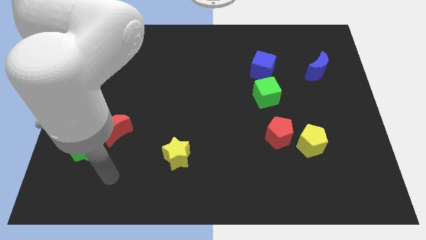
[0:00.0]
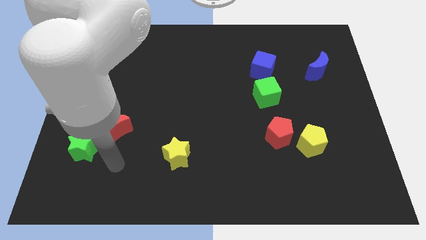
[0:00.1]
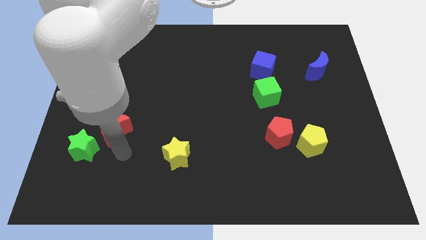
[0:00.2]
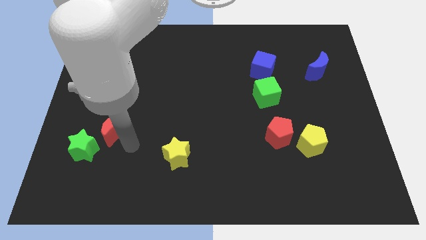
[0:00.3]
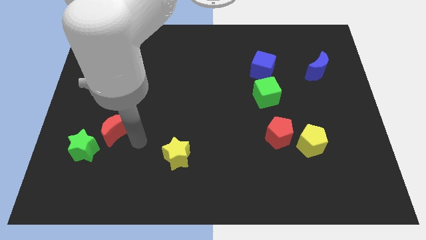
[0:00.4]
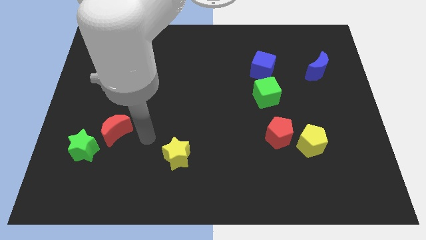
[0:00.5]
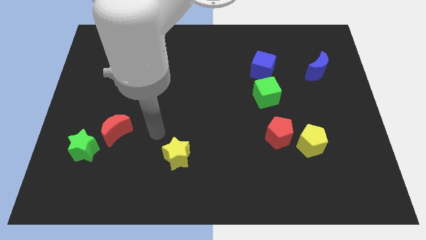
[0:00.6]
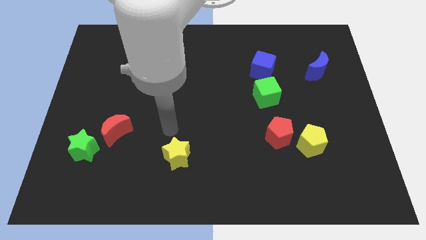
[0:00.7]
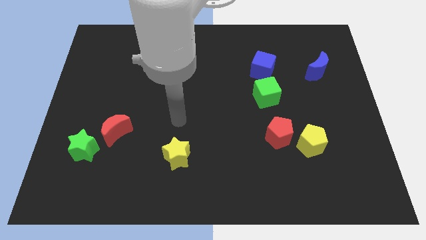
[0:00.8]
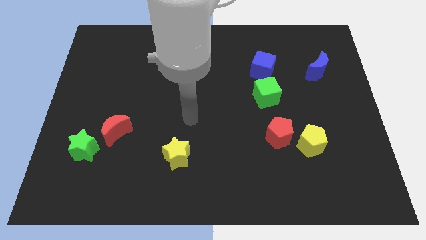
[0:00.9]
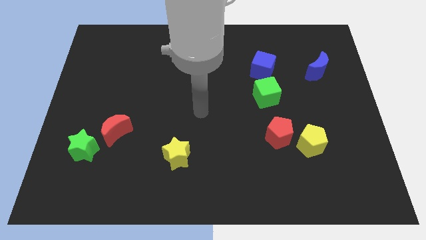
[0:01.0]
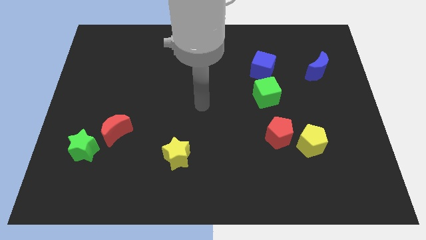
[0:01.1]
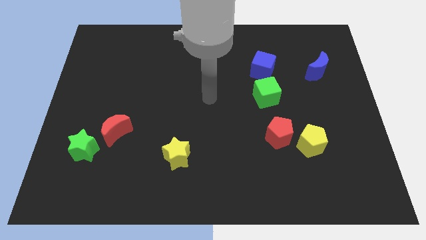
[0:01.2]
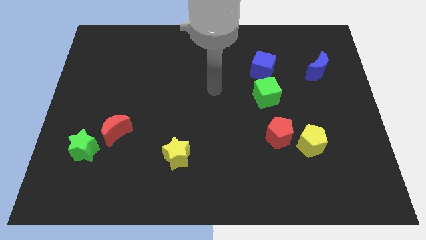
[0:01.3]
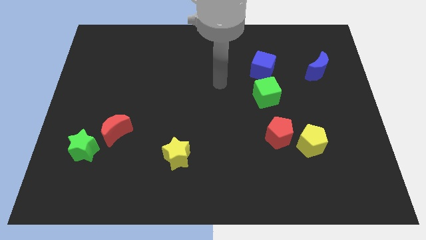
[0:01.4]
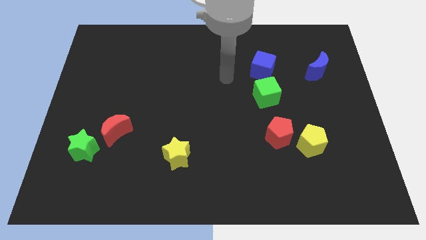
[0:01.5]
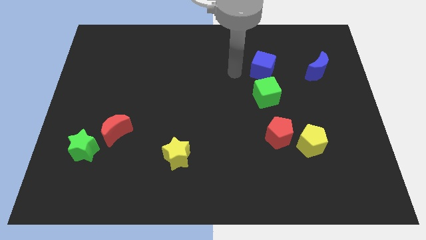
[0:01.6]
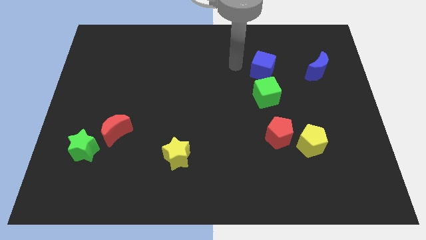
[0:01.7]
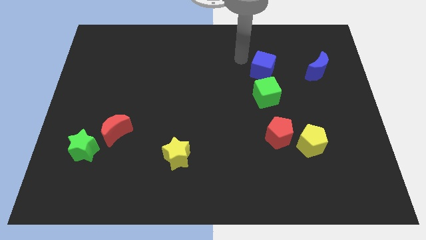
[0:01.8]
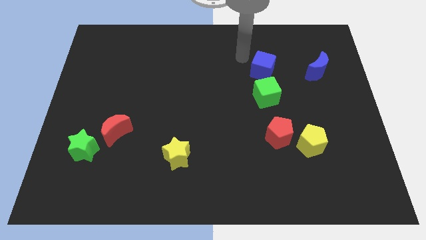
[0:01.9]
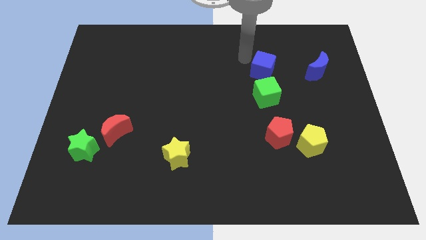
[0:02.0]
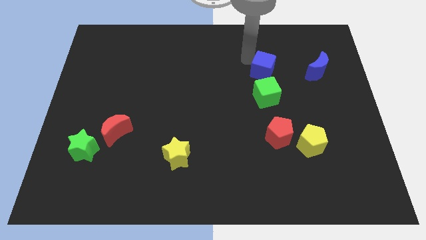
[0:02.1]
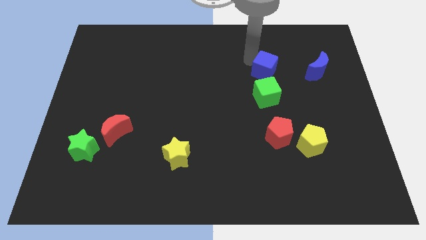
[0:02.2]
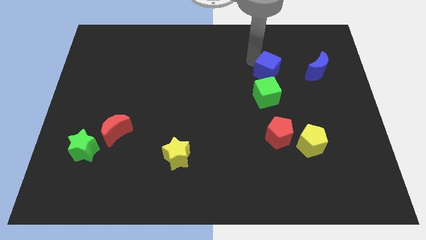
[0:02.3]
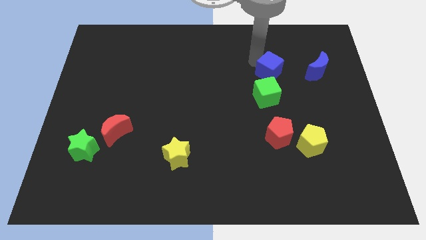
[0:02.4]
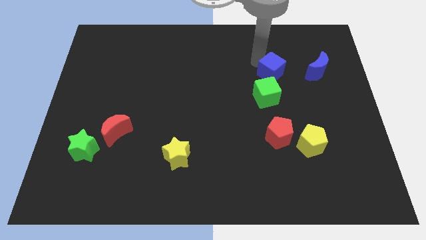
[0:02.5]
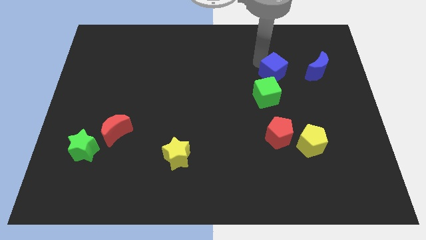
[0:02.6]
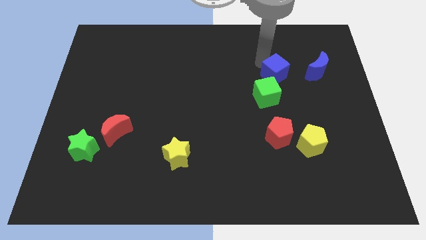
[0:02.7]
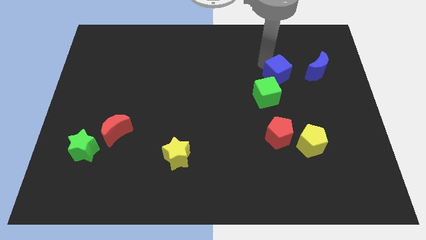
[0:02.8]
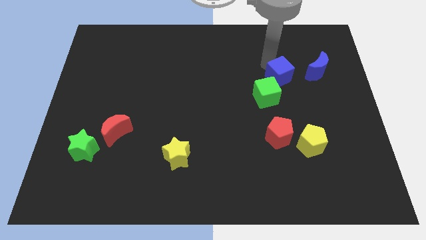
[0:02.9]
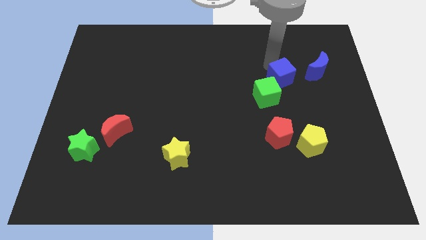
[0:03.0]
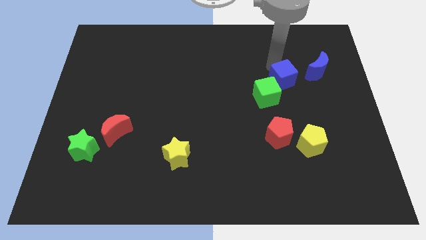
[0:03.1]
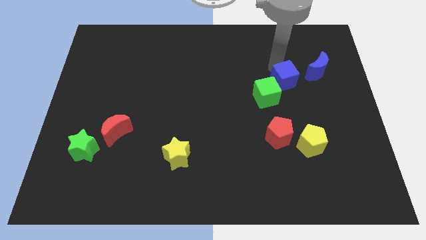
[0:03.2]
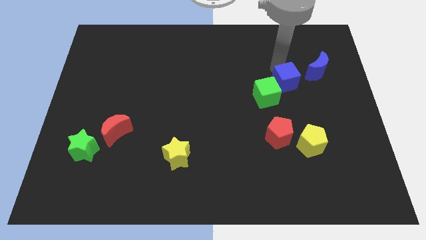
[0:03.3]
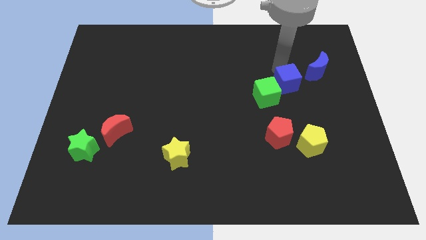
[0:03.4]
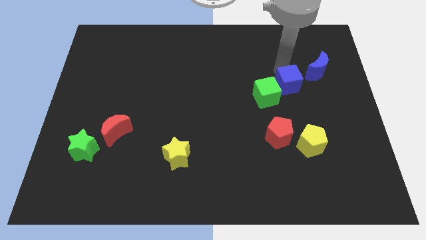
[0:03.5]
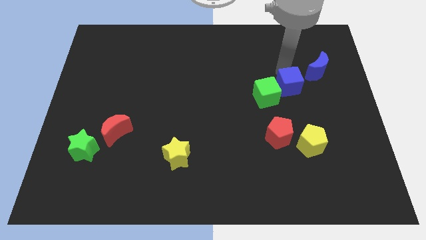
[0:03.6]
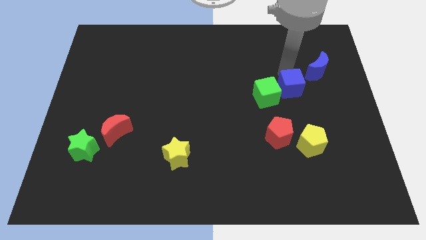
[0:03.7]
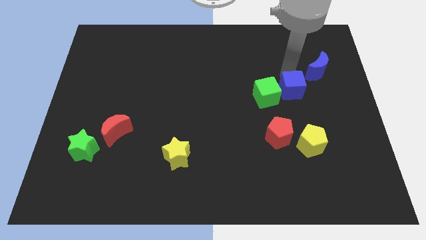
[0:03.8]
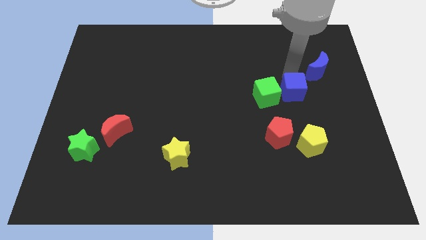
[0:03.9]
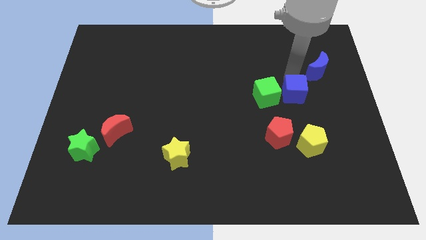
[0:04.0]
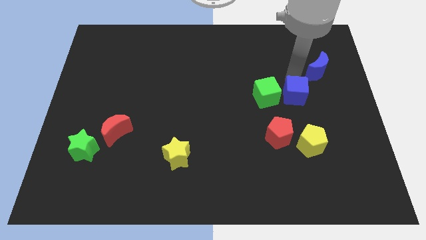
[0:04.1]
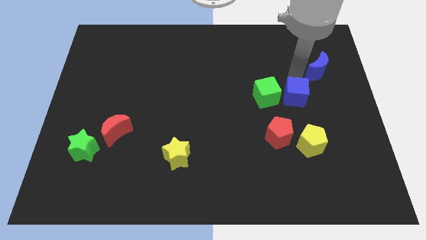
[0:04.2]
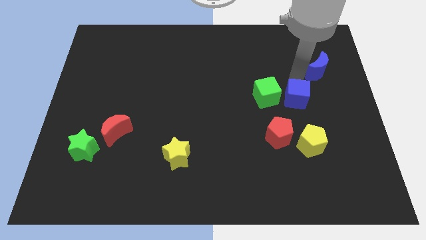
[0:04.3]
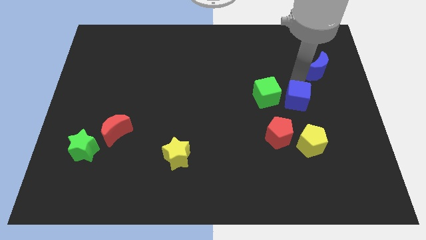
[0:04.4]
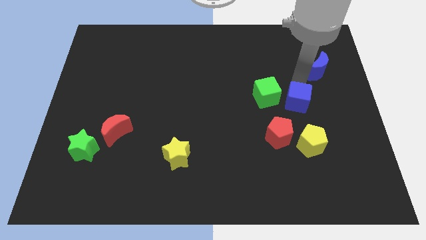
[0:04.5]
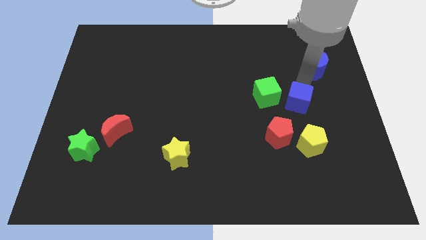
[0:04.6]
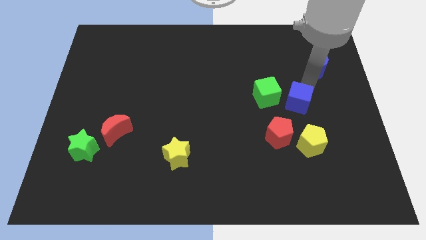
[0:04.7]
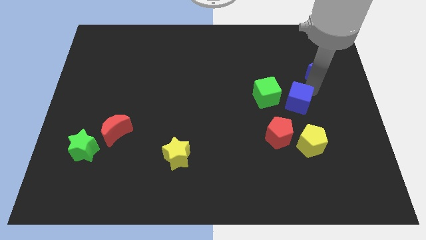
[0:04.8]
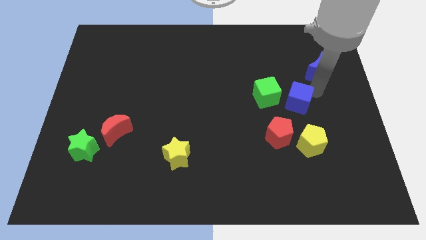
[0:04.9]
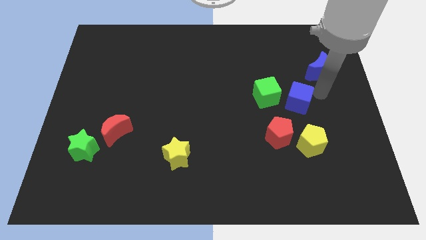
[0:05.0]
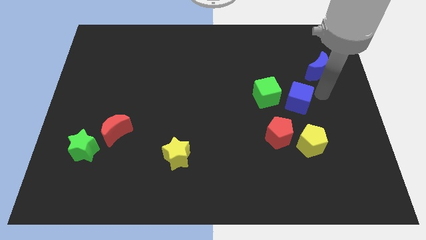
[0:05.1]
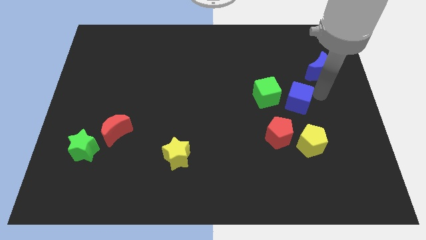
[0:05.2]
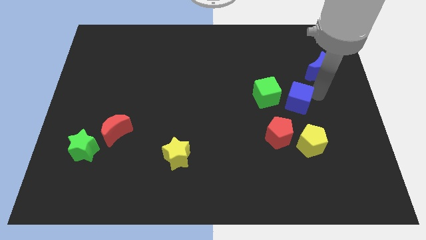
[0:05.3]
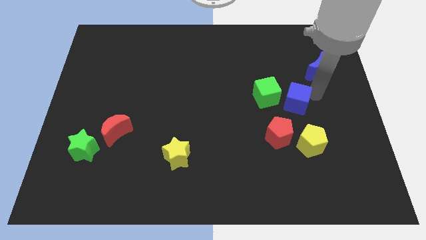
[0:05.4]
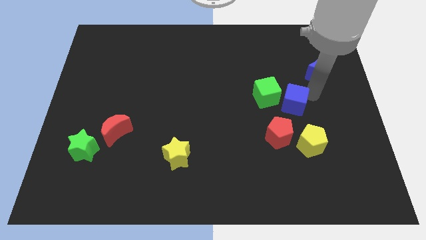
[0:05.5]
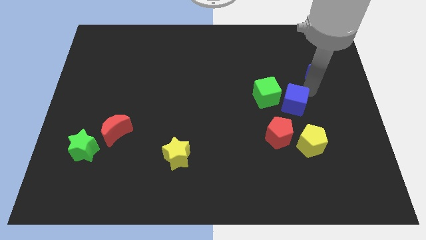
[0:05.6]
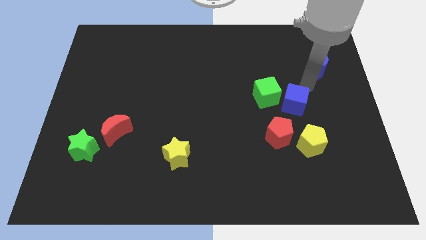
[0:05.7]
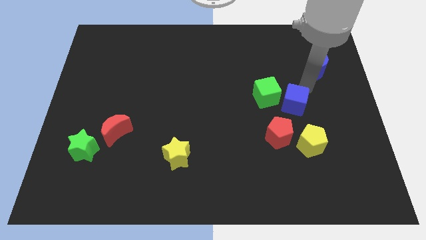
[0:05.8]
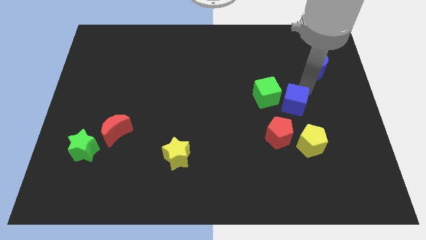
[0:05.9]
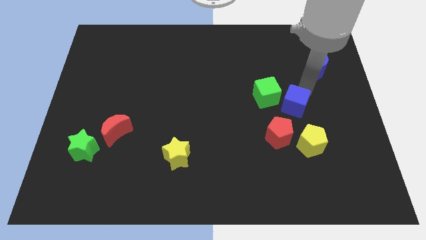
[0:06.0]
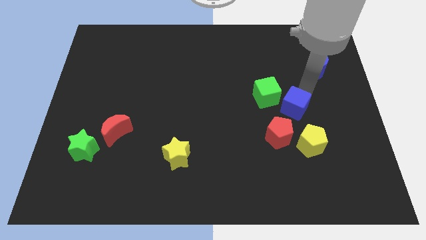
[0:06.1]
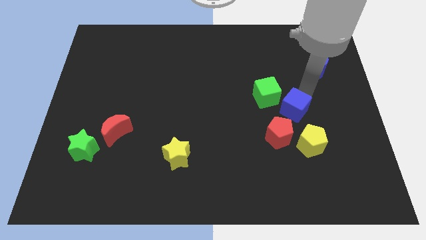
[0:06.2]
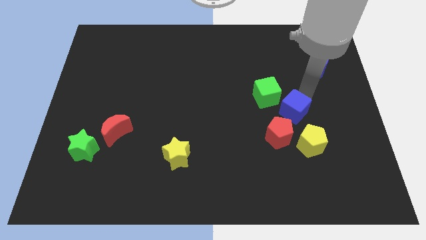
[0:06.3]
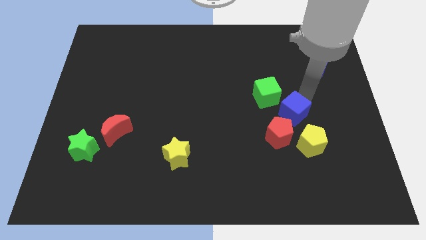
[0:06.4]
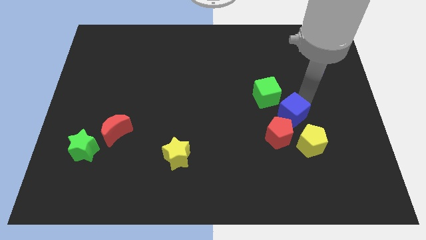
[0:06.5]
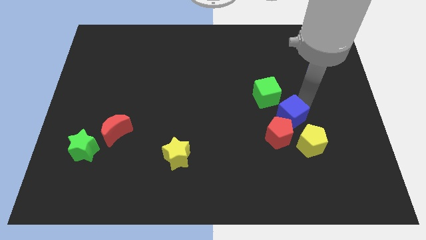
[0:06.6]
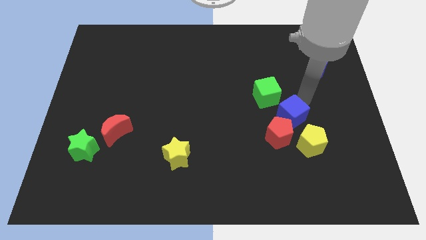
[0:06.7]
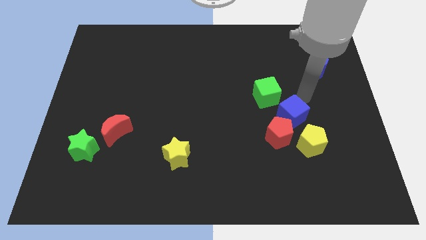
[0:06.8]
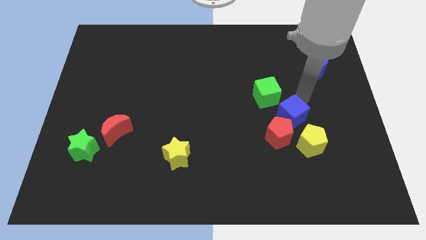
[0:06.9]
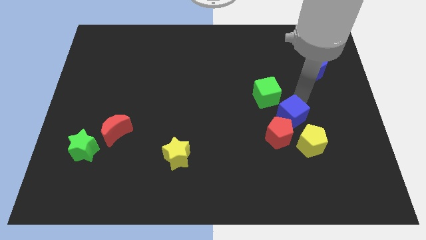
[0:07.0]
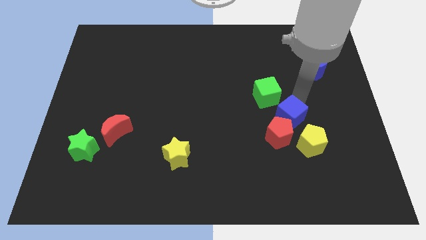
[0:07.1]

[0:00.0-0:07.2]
move the blue cube next to the red pentagon
